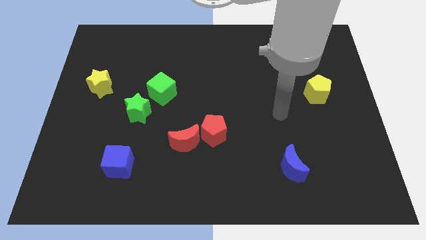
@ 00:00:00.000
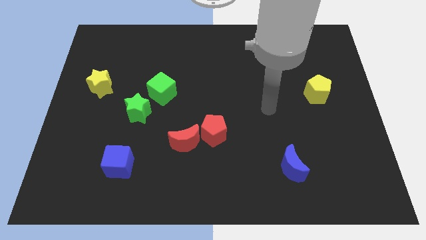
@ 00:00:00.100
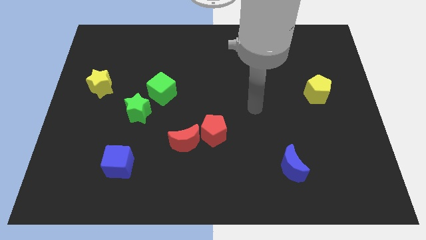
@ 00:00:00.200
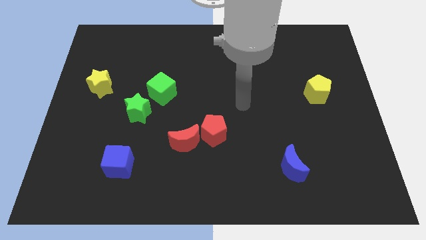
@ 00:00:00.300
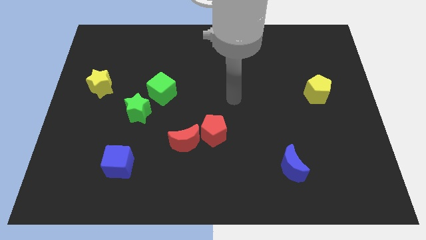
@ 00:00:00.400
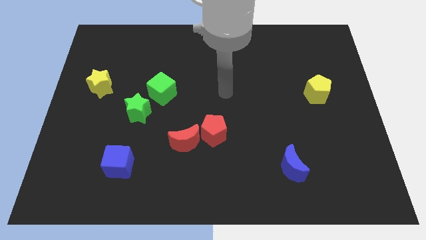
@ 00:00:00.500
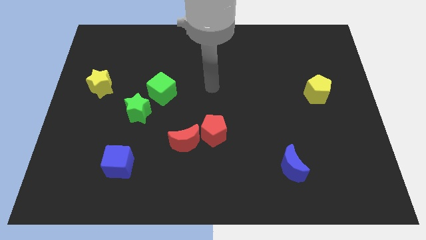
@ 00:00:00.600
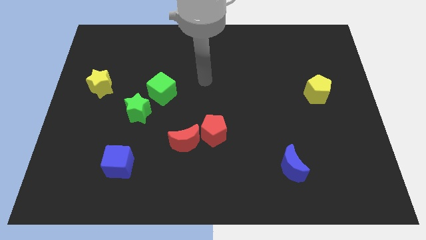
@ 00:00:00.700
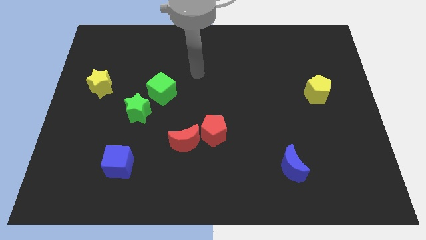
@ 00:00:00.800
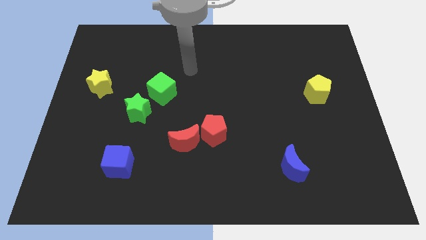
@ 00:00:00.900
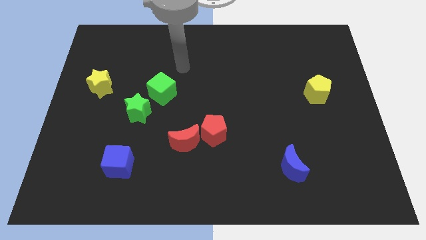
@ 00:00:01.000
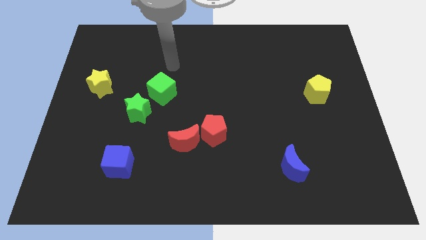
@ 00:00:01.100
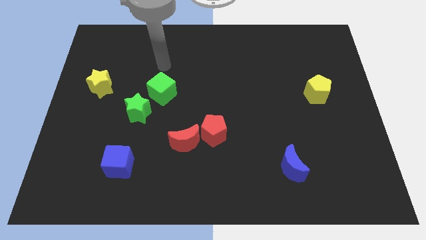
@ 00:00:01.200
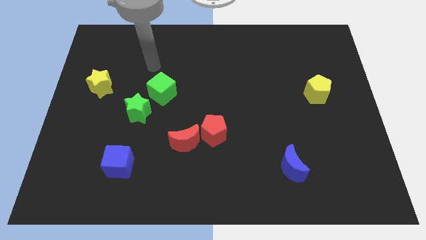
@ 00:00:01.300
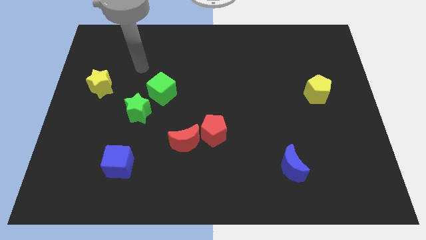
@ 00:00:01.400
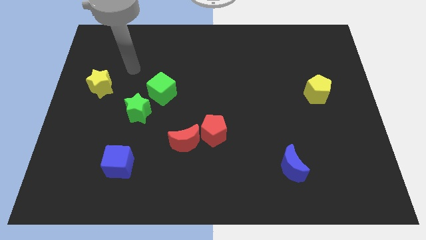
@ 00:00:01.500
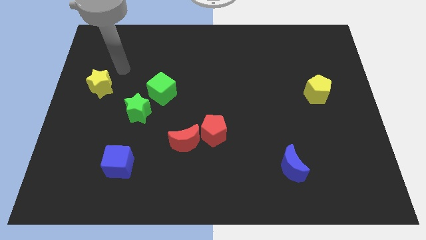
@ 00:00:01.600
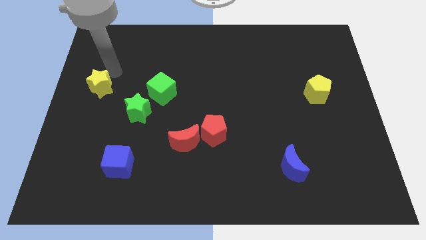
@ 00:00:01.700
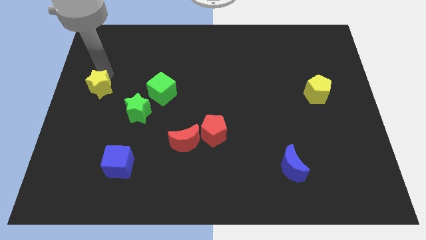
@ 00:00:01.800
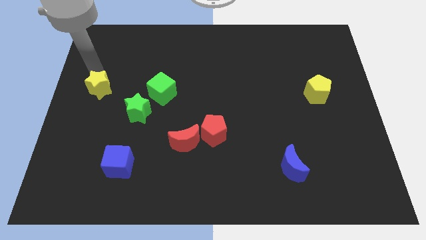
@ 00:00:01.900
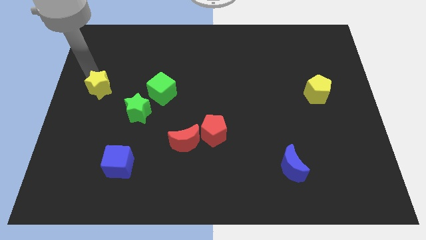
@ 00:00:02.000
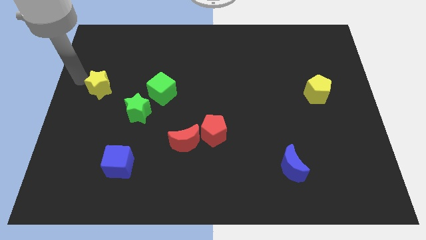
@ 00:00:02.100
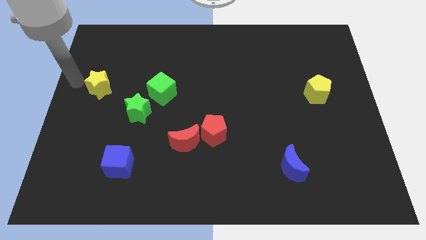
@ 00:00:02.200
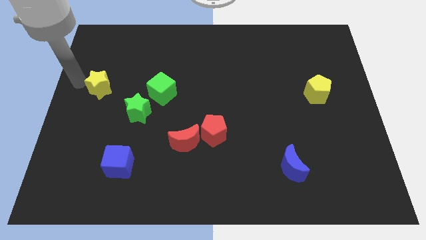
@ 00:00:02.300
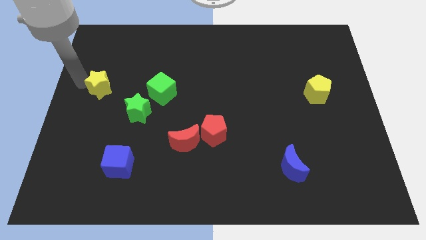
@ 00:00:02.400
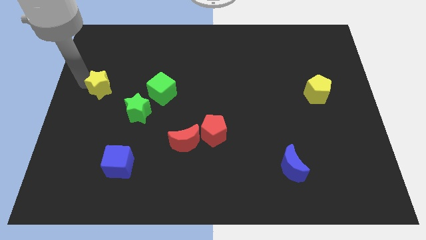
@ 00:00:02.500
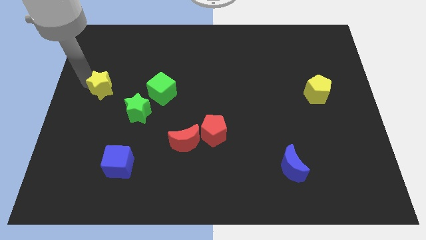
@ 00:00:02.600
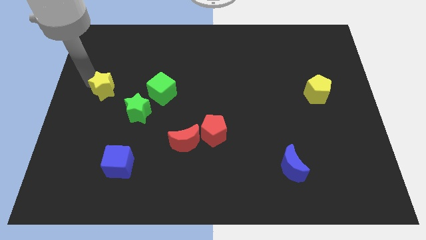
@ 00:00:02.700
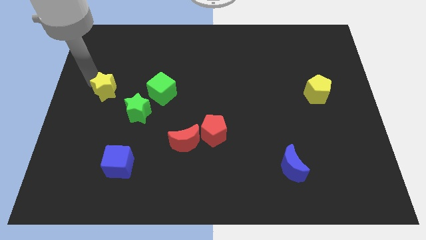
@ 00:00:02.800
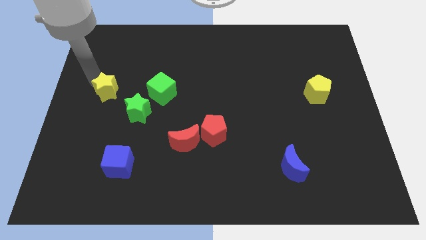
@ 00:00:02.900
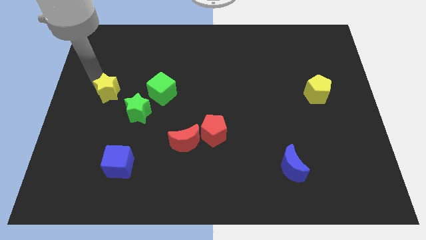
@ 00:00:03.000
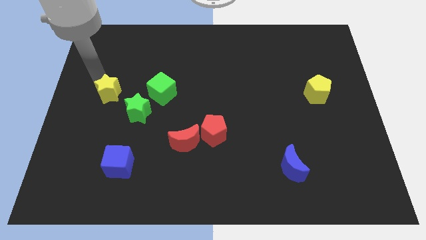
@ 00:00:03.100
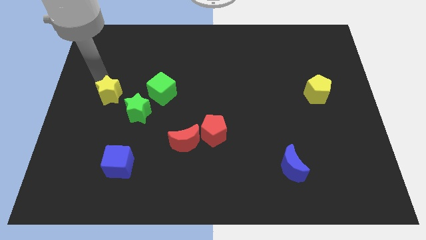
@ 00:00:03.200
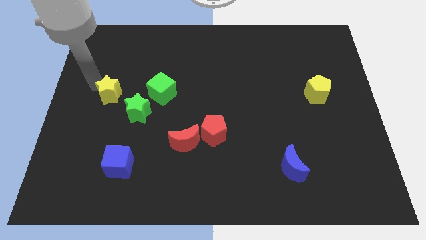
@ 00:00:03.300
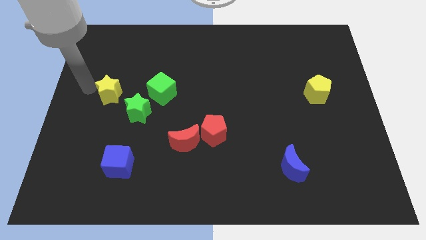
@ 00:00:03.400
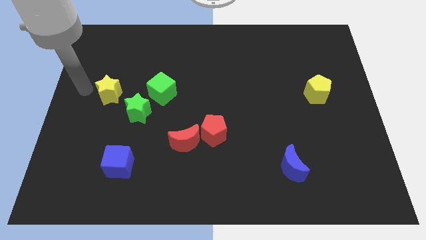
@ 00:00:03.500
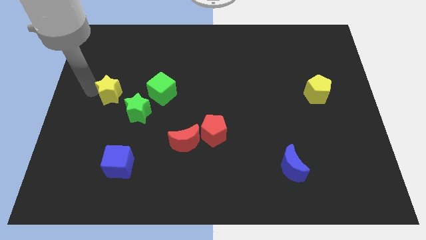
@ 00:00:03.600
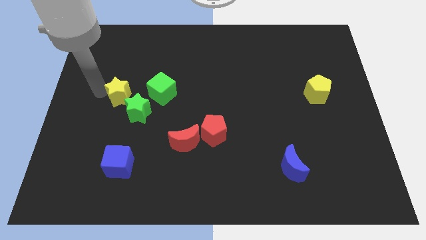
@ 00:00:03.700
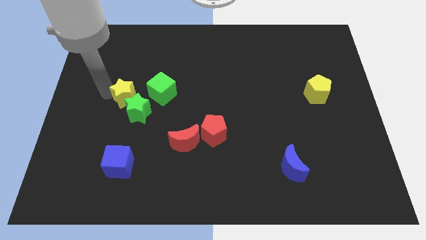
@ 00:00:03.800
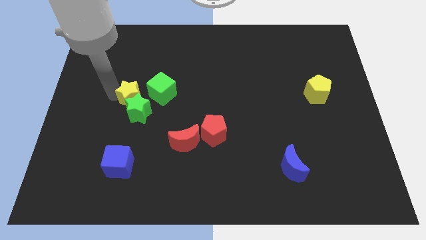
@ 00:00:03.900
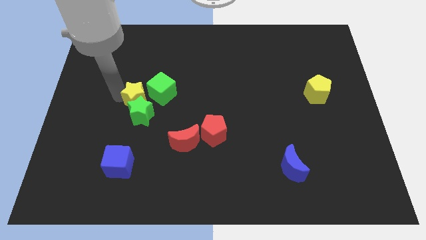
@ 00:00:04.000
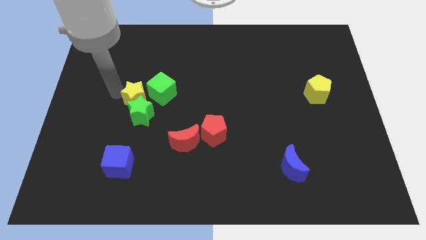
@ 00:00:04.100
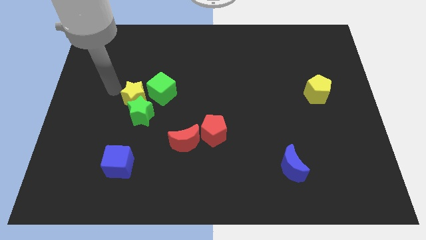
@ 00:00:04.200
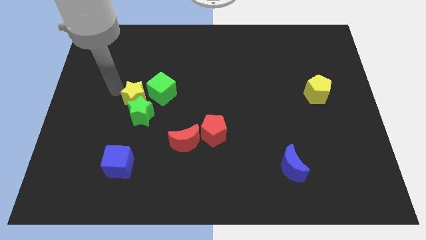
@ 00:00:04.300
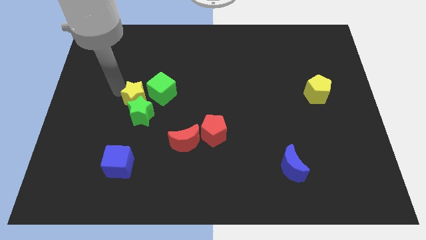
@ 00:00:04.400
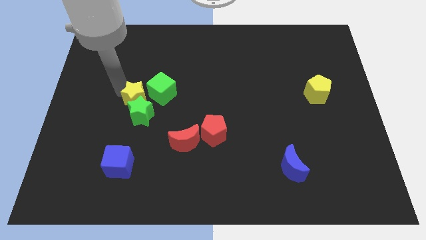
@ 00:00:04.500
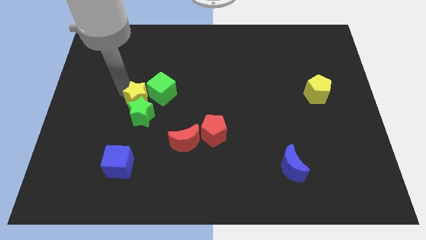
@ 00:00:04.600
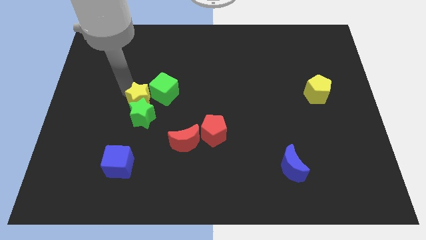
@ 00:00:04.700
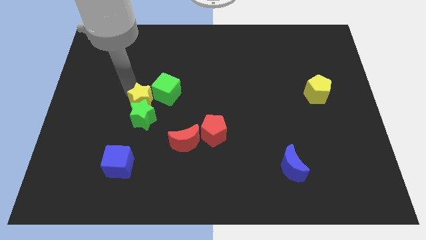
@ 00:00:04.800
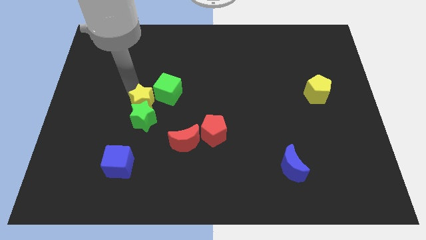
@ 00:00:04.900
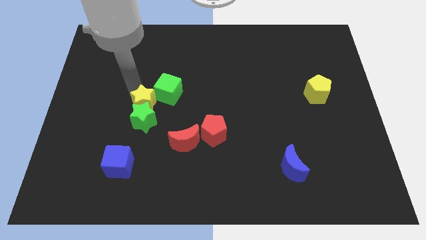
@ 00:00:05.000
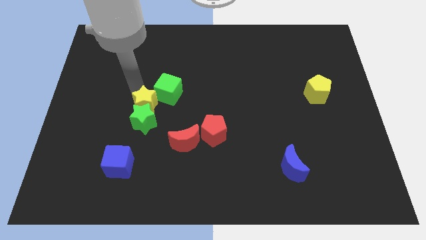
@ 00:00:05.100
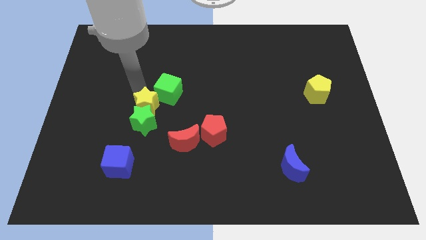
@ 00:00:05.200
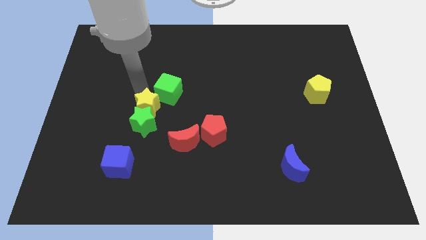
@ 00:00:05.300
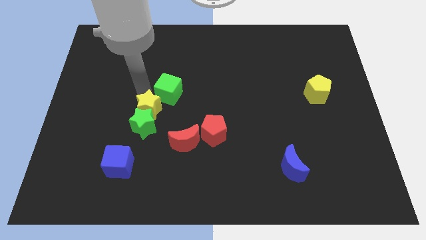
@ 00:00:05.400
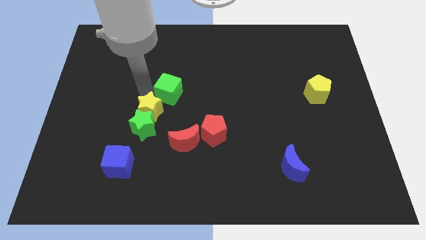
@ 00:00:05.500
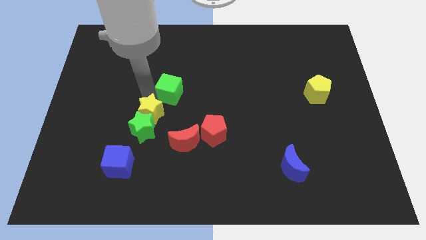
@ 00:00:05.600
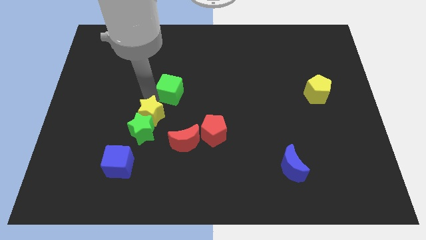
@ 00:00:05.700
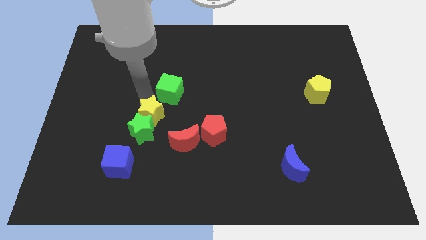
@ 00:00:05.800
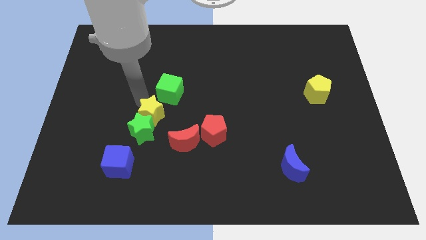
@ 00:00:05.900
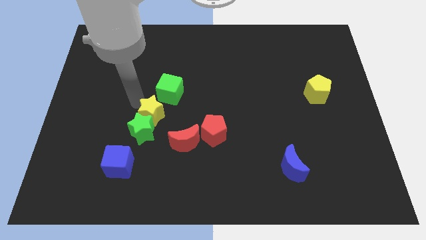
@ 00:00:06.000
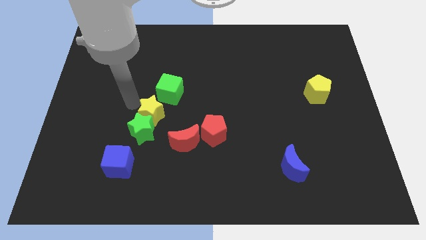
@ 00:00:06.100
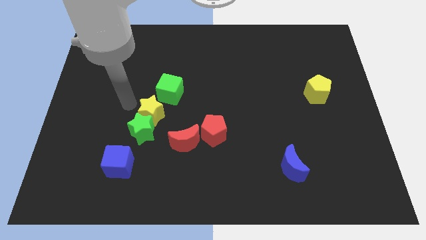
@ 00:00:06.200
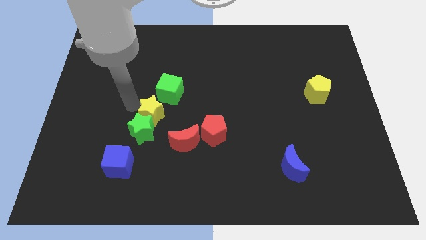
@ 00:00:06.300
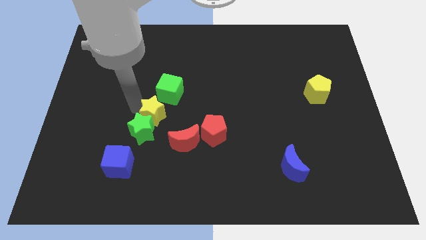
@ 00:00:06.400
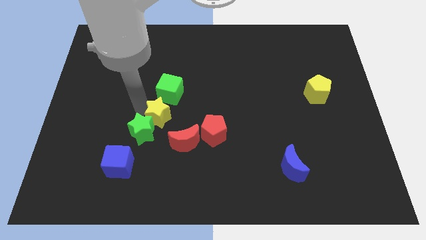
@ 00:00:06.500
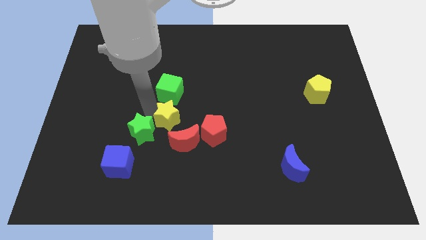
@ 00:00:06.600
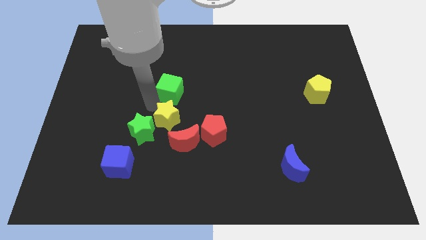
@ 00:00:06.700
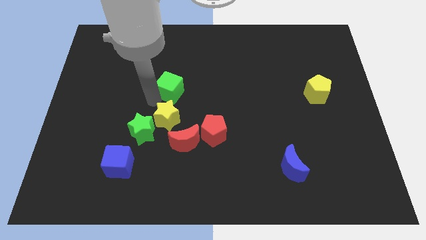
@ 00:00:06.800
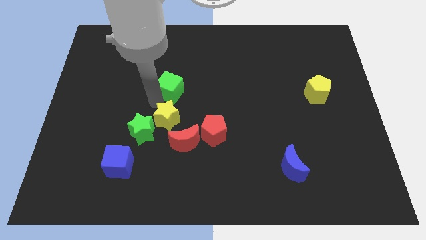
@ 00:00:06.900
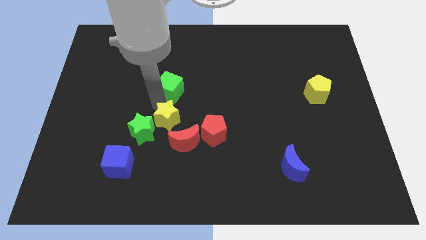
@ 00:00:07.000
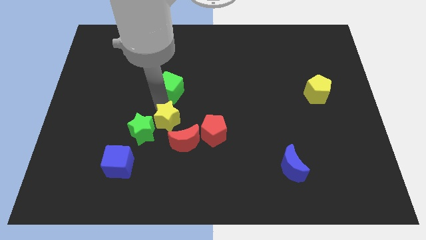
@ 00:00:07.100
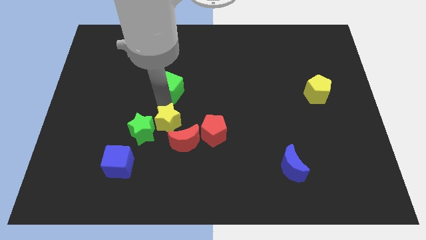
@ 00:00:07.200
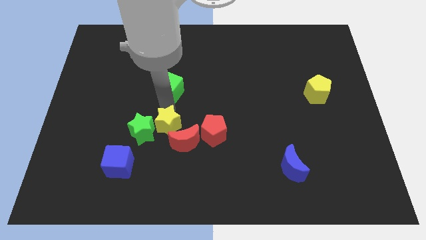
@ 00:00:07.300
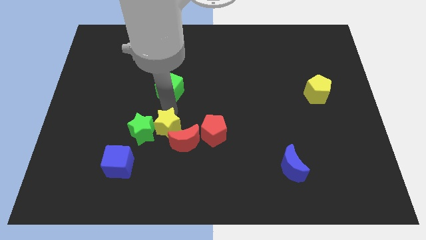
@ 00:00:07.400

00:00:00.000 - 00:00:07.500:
move the yellow star close to the red moon
